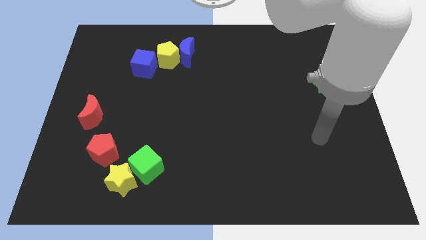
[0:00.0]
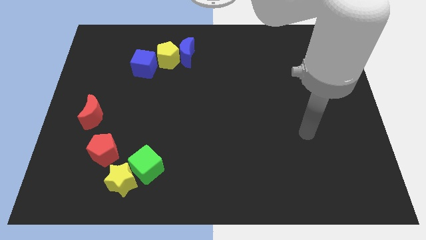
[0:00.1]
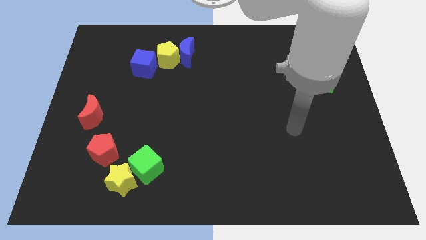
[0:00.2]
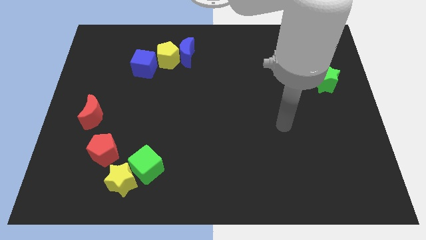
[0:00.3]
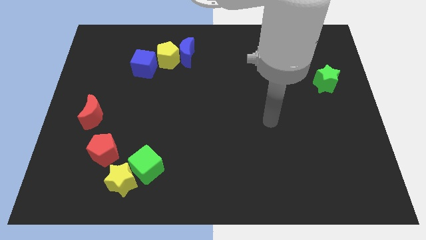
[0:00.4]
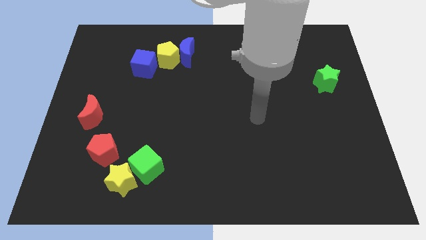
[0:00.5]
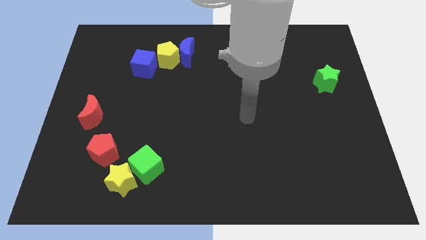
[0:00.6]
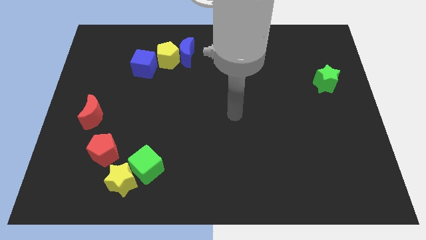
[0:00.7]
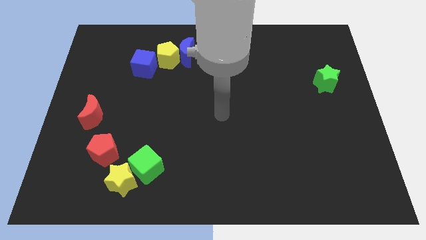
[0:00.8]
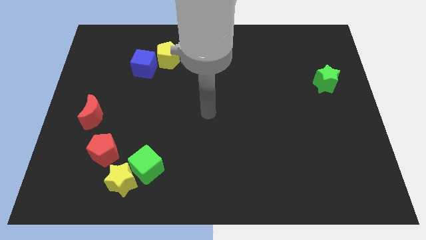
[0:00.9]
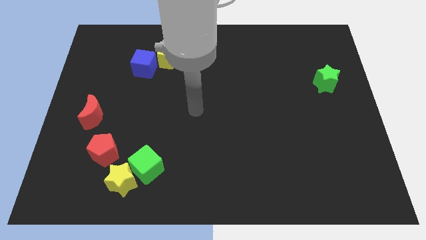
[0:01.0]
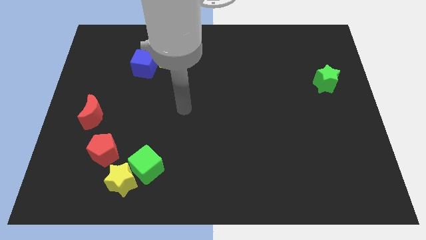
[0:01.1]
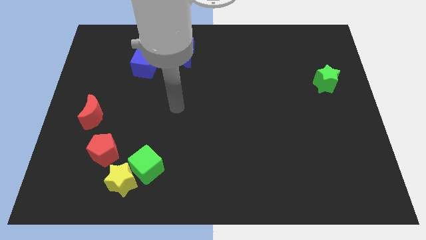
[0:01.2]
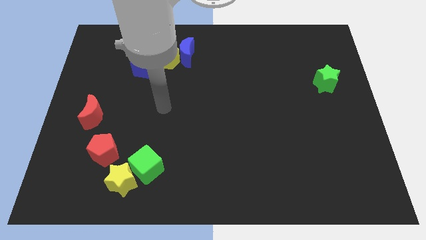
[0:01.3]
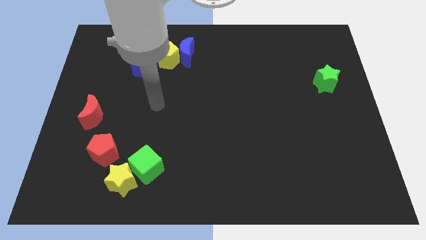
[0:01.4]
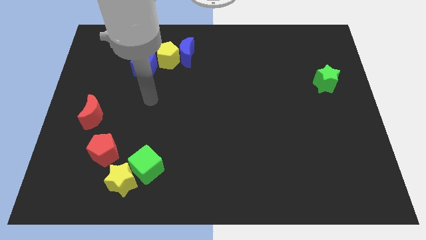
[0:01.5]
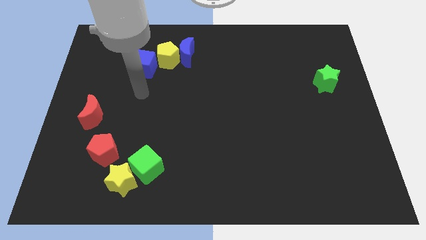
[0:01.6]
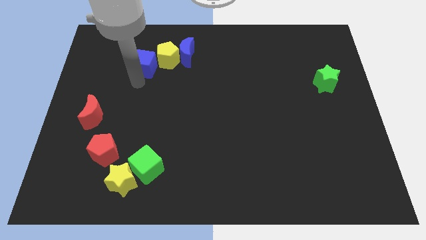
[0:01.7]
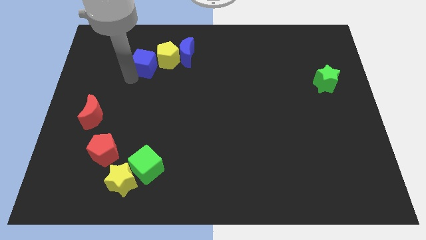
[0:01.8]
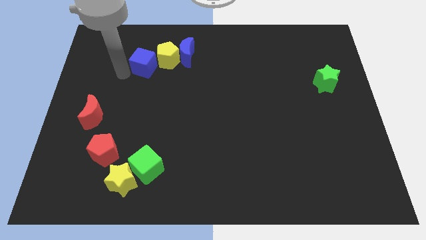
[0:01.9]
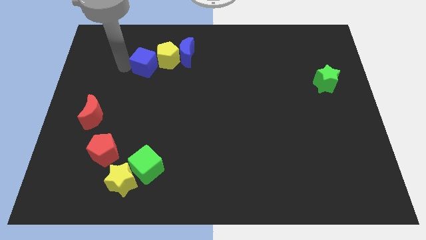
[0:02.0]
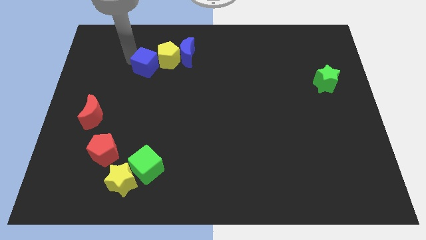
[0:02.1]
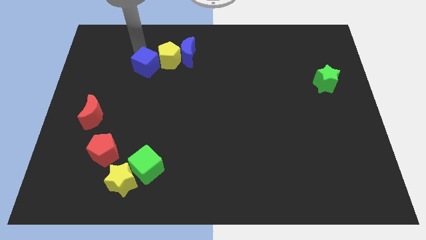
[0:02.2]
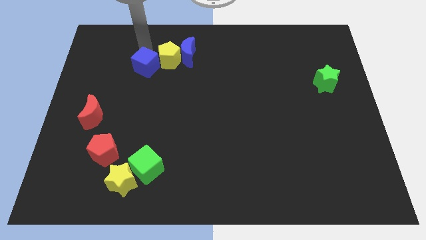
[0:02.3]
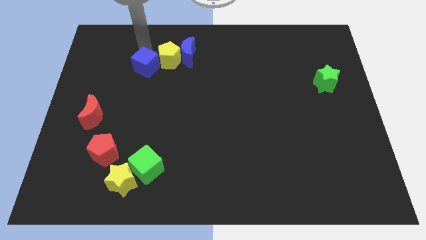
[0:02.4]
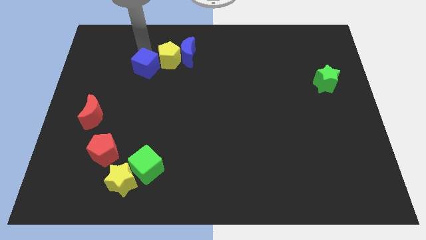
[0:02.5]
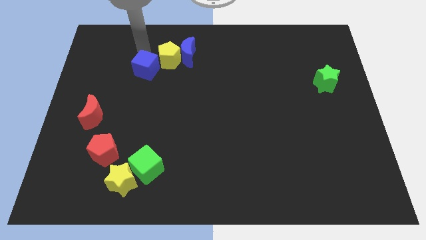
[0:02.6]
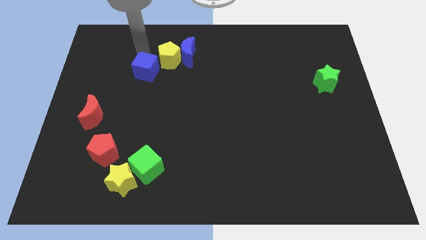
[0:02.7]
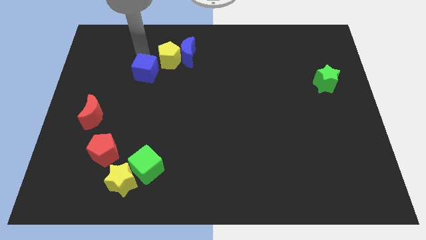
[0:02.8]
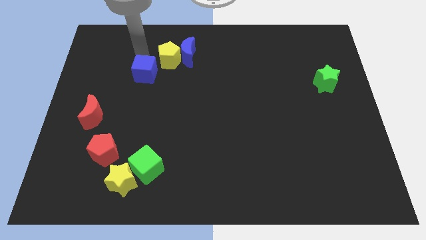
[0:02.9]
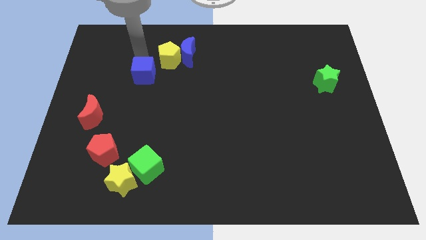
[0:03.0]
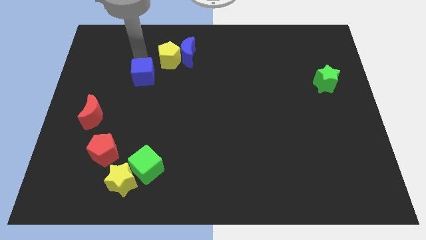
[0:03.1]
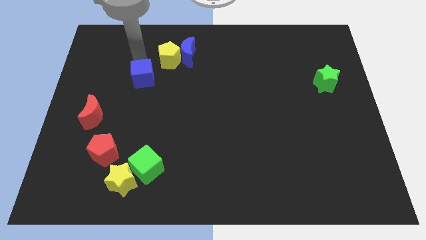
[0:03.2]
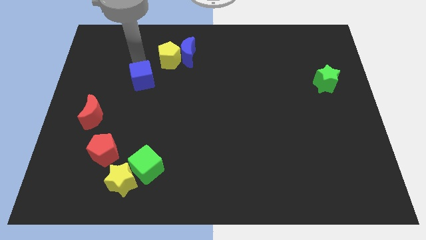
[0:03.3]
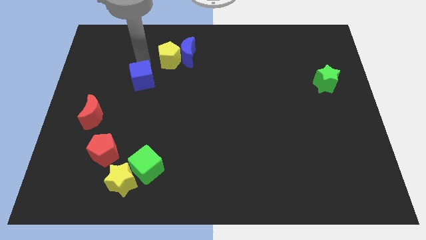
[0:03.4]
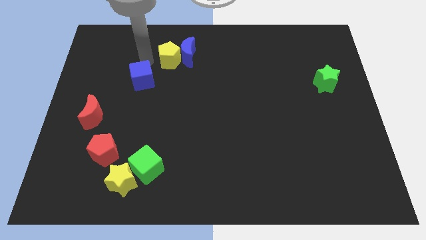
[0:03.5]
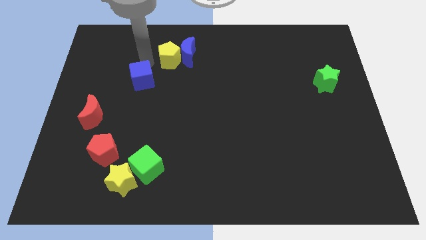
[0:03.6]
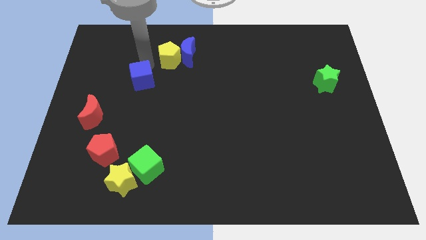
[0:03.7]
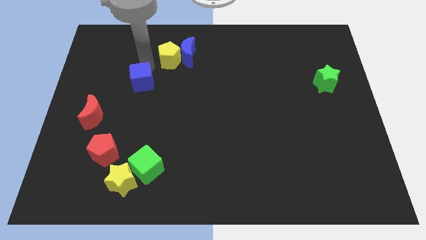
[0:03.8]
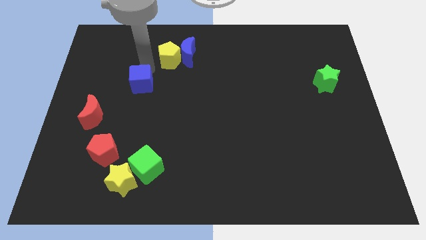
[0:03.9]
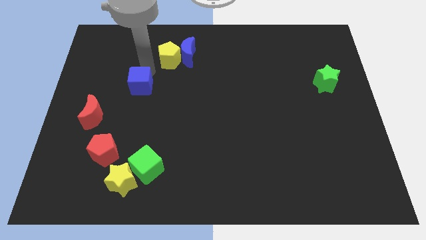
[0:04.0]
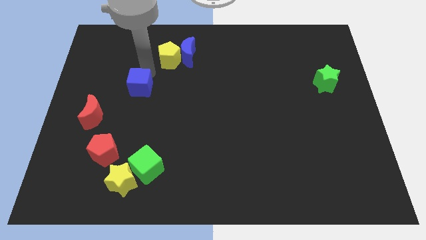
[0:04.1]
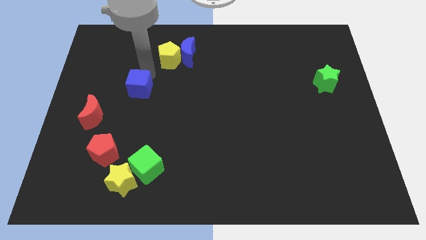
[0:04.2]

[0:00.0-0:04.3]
slide the blue cube a little bit down

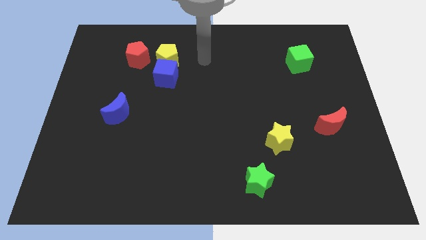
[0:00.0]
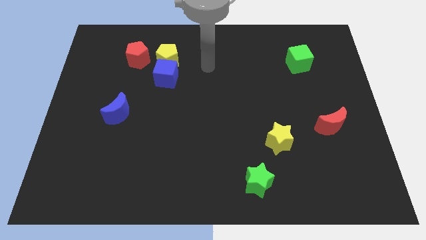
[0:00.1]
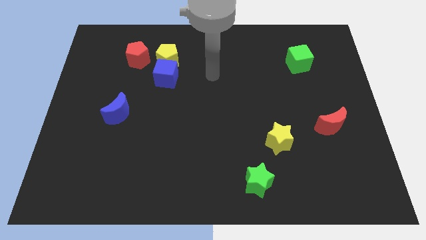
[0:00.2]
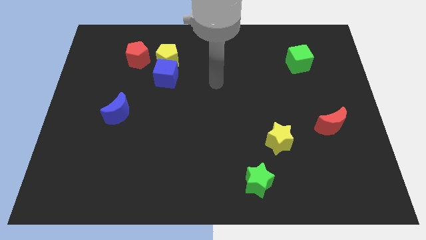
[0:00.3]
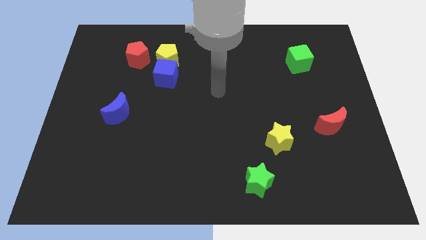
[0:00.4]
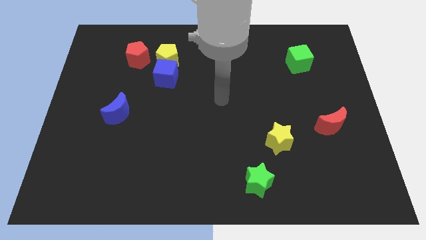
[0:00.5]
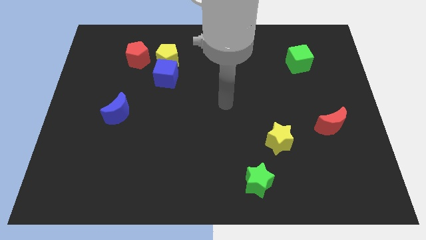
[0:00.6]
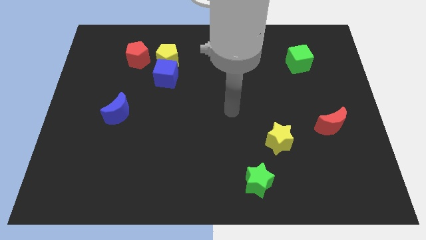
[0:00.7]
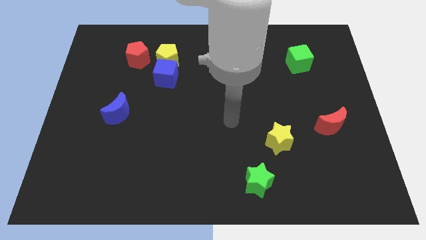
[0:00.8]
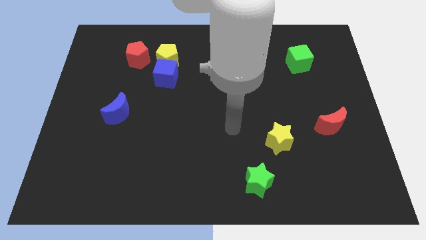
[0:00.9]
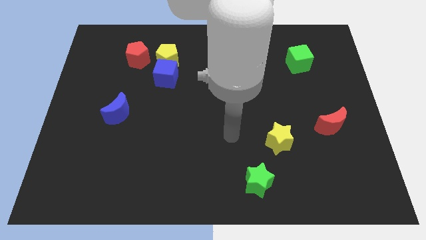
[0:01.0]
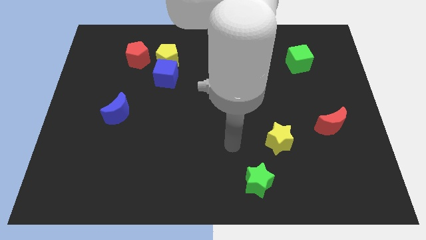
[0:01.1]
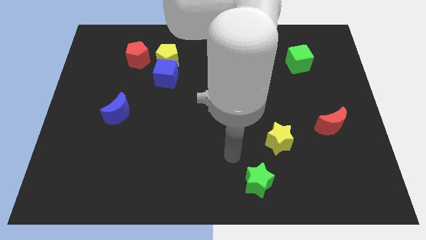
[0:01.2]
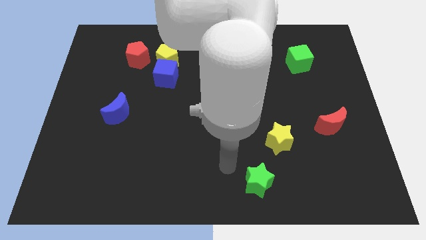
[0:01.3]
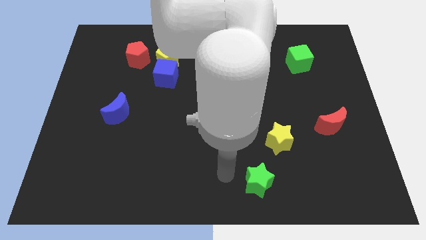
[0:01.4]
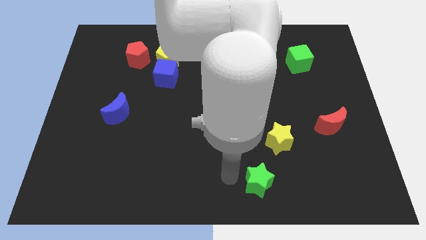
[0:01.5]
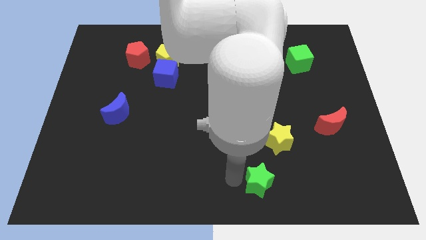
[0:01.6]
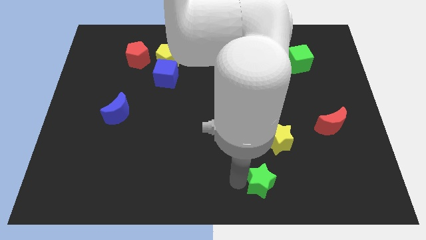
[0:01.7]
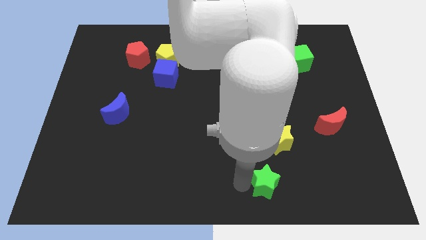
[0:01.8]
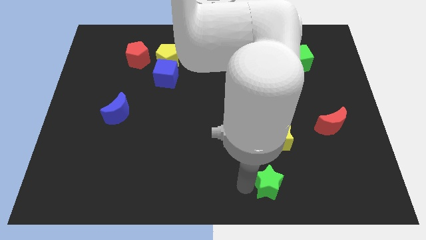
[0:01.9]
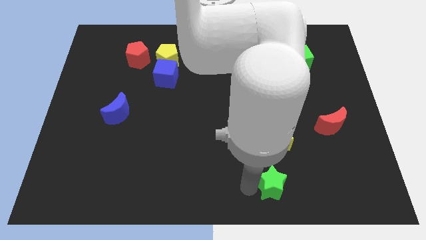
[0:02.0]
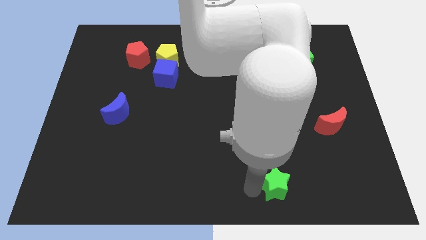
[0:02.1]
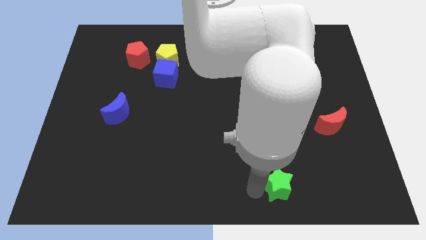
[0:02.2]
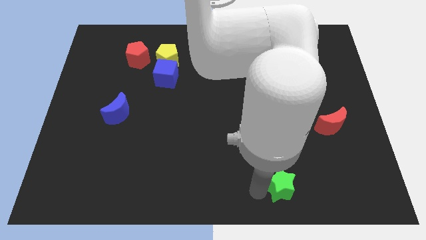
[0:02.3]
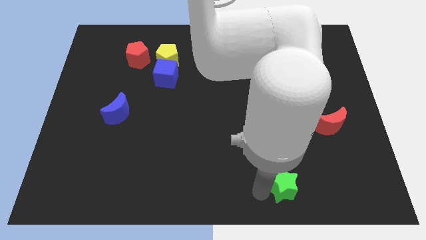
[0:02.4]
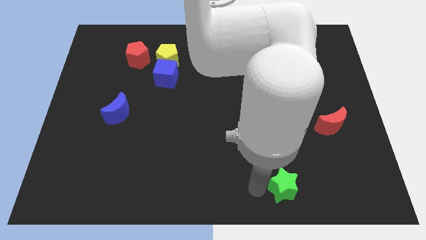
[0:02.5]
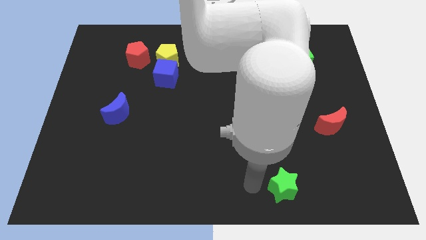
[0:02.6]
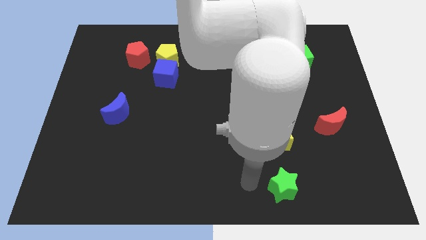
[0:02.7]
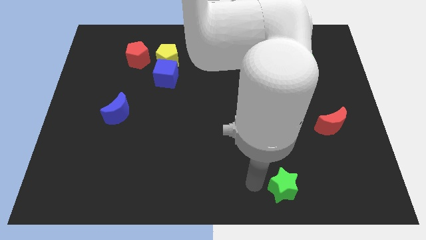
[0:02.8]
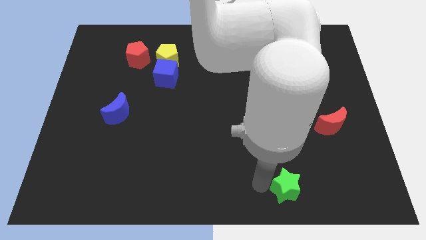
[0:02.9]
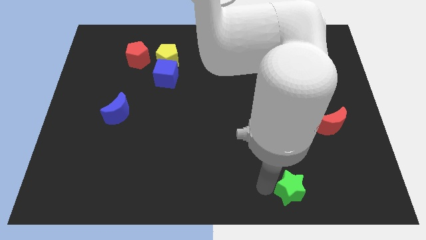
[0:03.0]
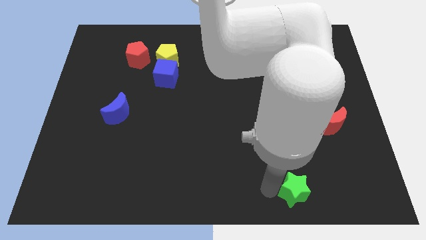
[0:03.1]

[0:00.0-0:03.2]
slide the green star a little bit right

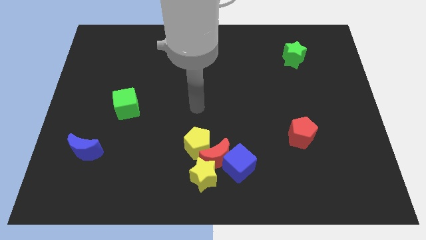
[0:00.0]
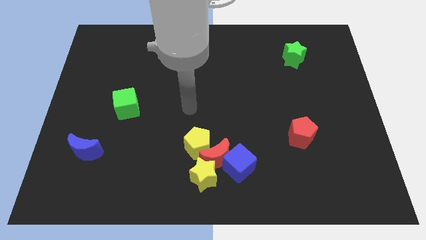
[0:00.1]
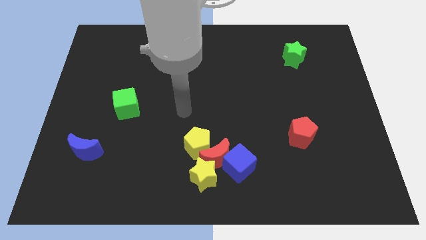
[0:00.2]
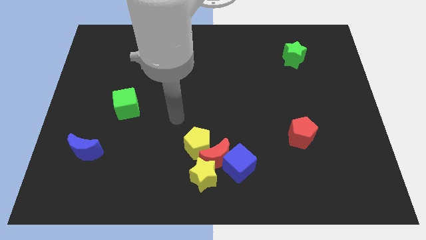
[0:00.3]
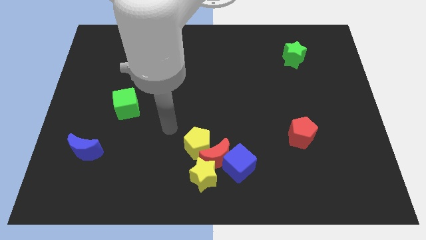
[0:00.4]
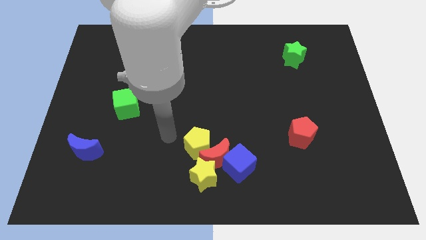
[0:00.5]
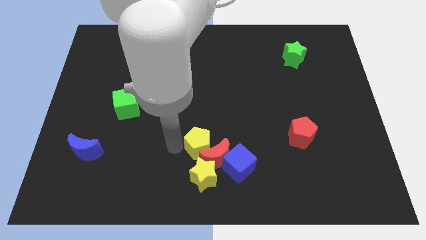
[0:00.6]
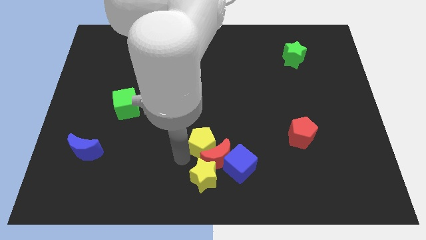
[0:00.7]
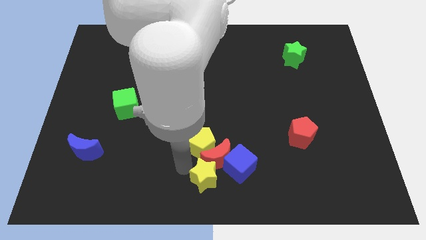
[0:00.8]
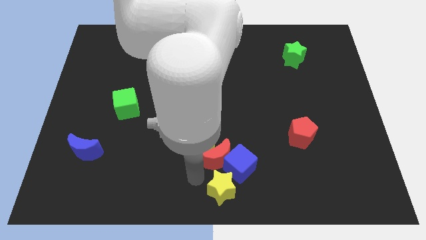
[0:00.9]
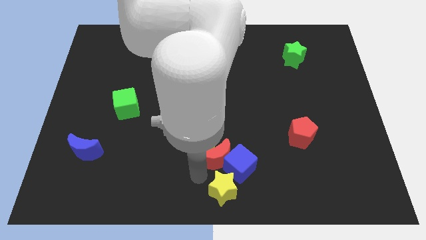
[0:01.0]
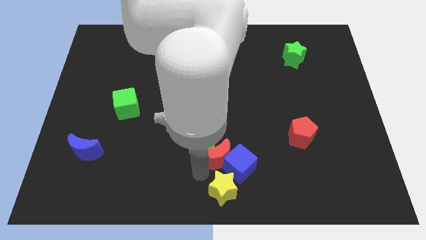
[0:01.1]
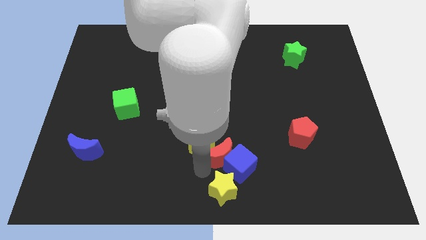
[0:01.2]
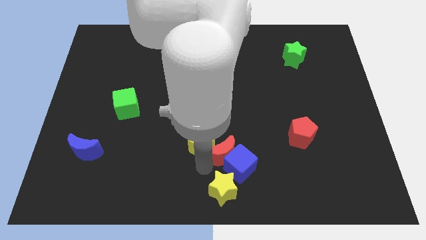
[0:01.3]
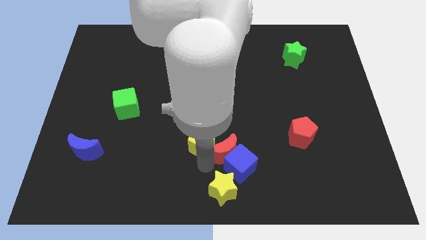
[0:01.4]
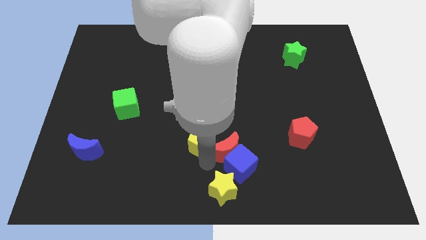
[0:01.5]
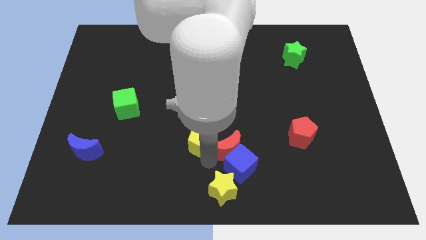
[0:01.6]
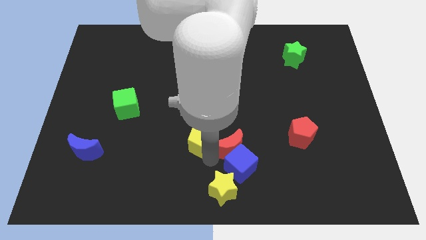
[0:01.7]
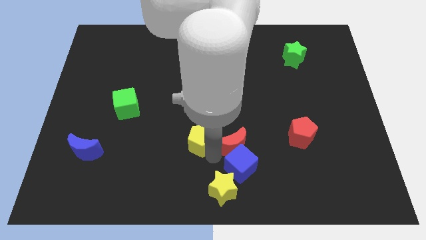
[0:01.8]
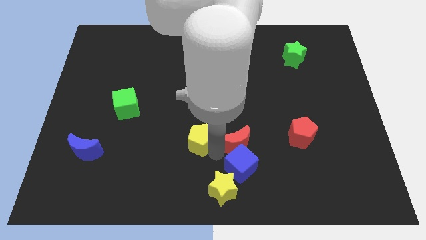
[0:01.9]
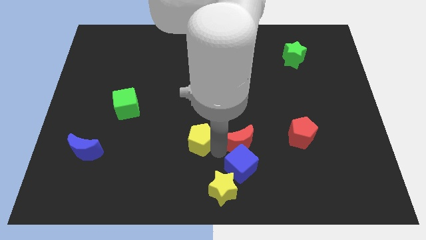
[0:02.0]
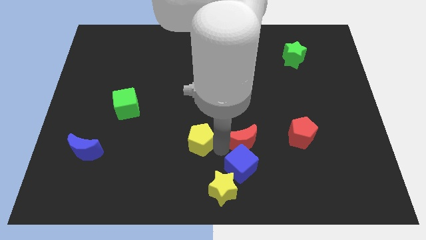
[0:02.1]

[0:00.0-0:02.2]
slightly move the red moon up and then to the right
